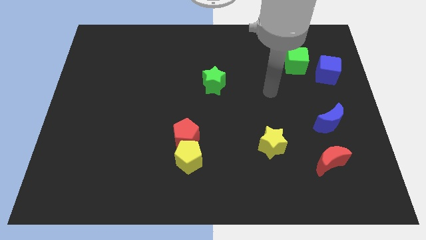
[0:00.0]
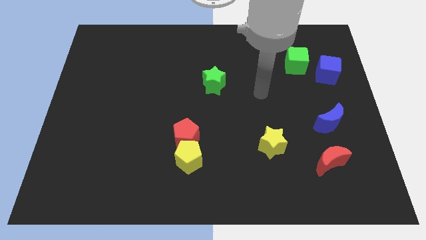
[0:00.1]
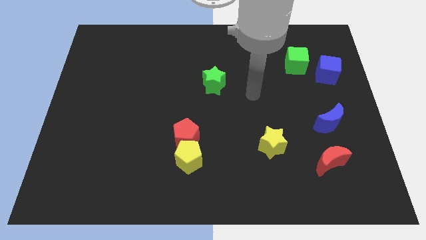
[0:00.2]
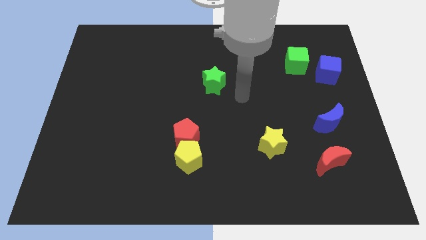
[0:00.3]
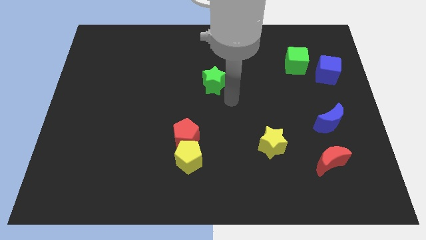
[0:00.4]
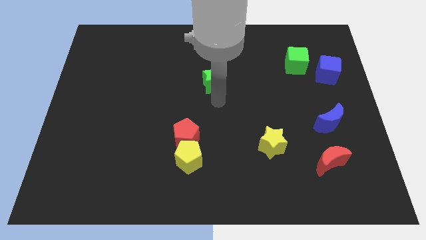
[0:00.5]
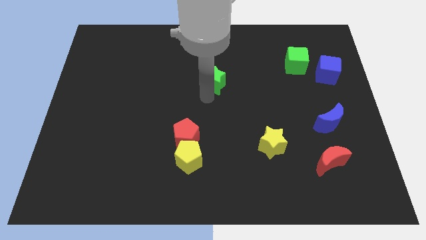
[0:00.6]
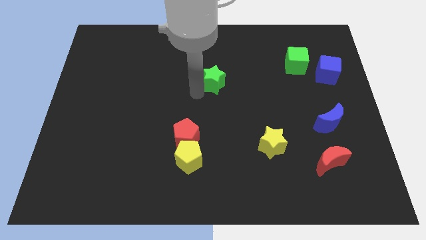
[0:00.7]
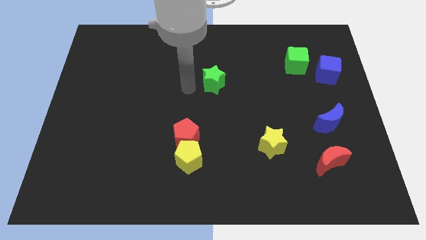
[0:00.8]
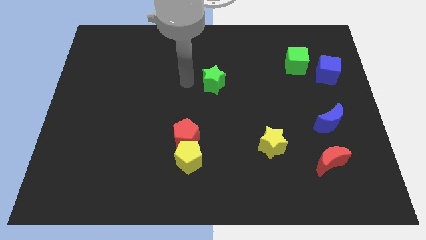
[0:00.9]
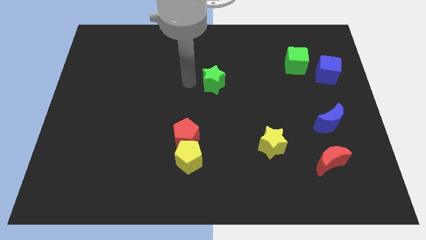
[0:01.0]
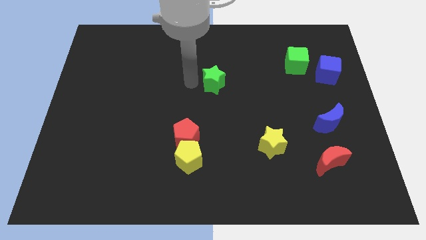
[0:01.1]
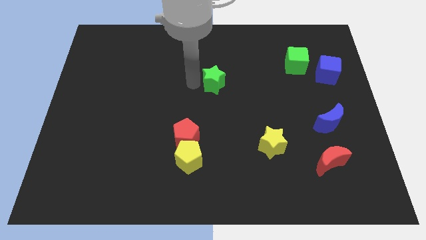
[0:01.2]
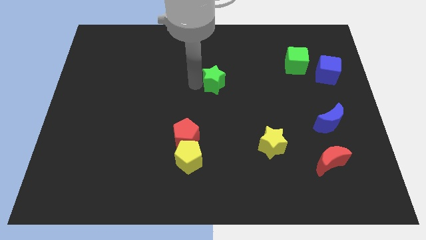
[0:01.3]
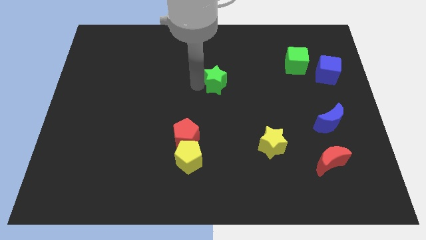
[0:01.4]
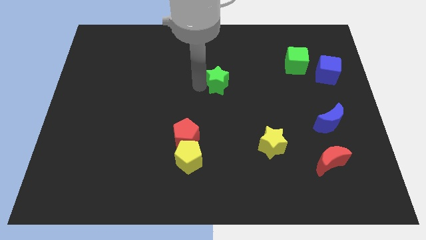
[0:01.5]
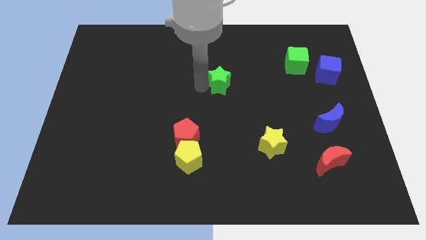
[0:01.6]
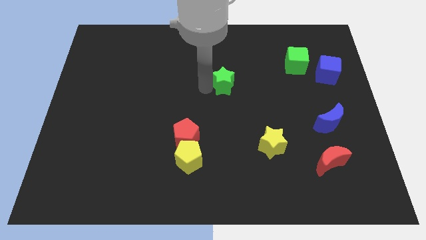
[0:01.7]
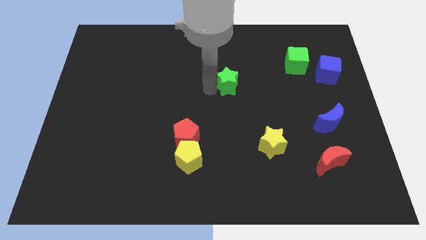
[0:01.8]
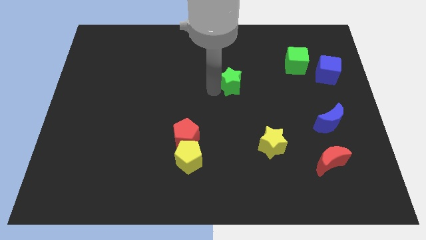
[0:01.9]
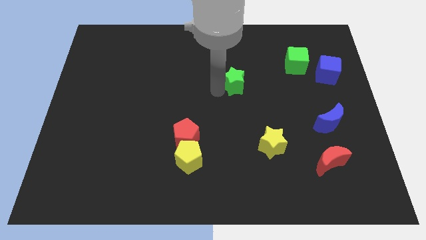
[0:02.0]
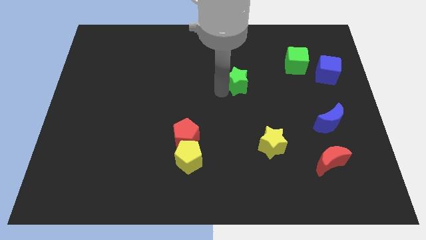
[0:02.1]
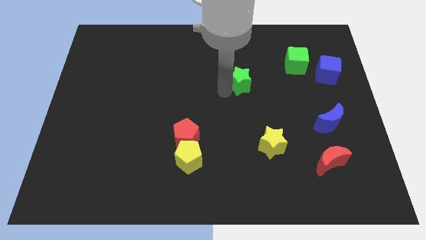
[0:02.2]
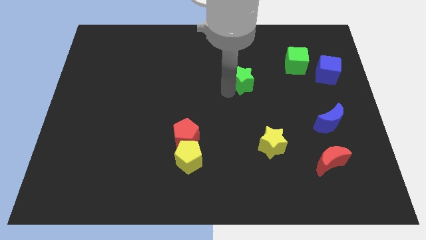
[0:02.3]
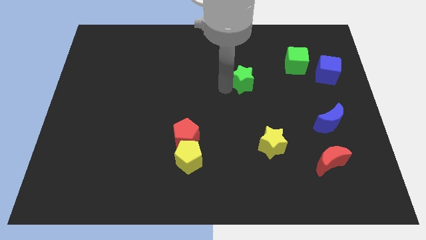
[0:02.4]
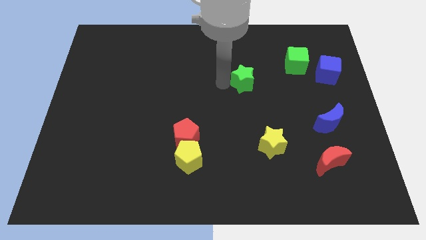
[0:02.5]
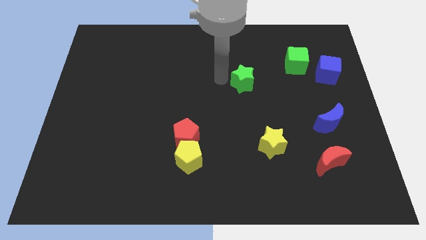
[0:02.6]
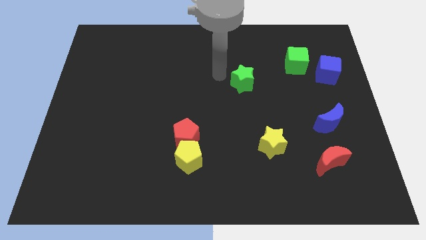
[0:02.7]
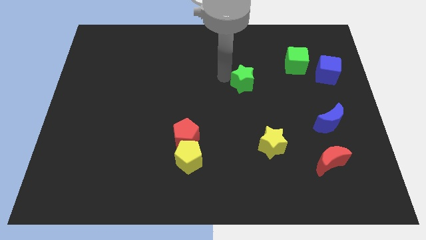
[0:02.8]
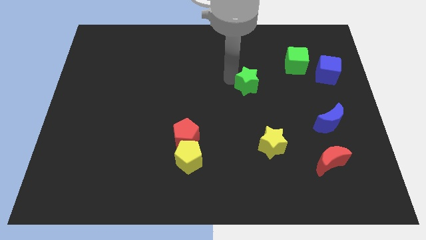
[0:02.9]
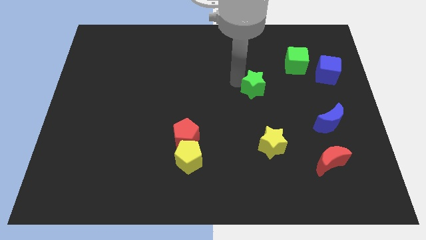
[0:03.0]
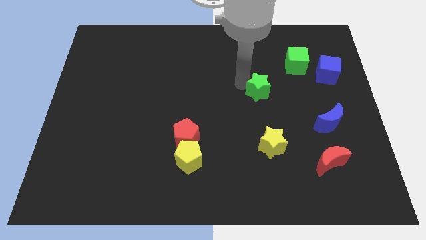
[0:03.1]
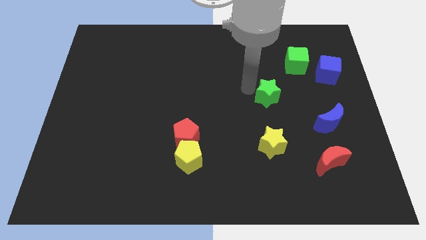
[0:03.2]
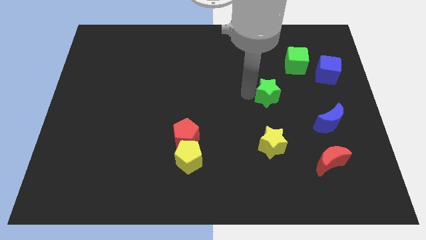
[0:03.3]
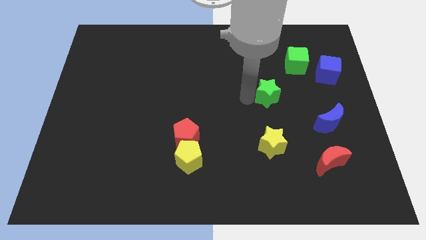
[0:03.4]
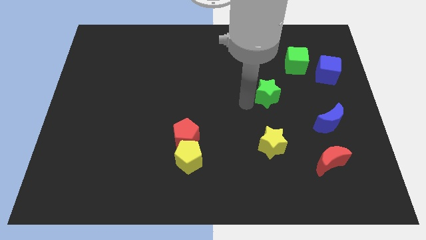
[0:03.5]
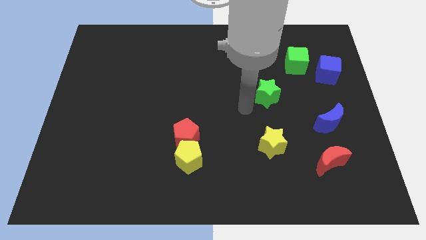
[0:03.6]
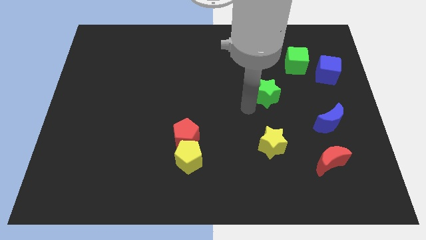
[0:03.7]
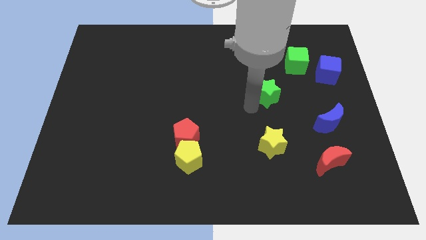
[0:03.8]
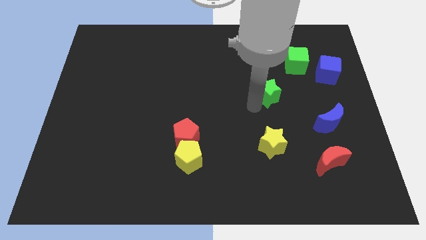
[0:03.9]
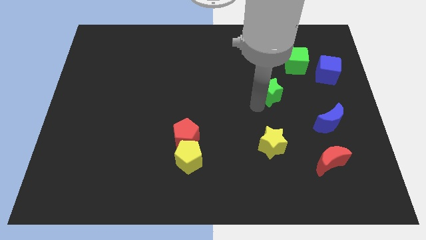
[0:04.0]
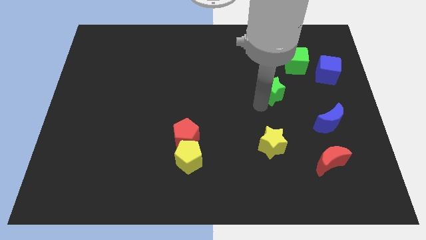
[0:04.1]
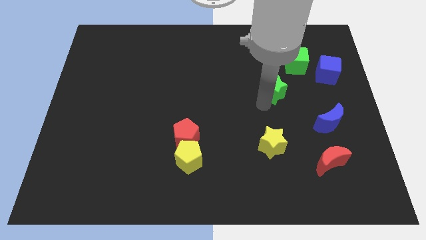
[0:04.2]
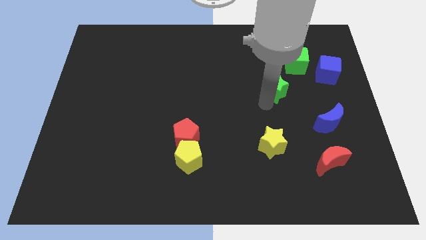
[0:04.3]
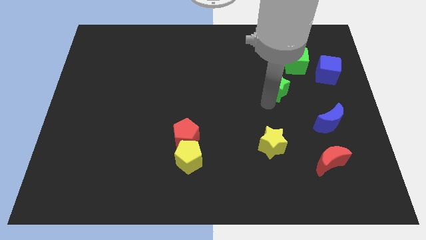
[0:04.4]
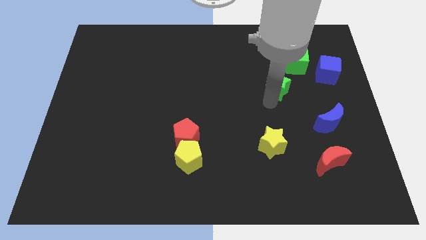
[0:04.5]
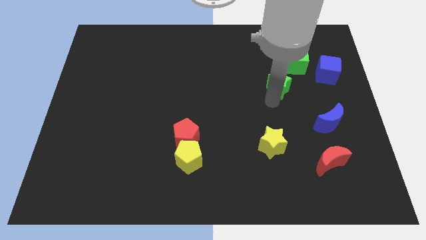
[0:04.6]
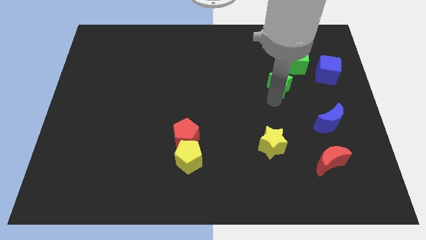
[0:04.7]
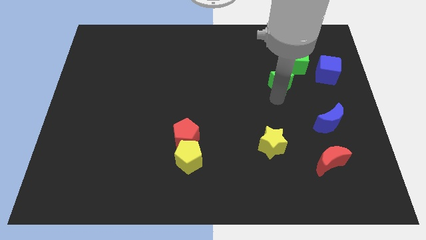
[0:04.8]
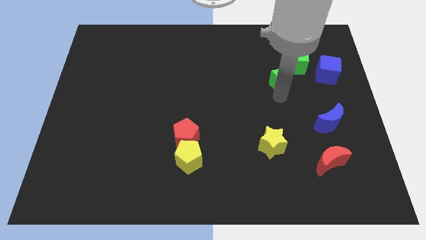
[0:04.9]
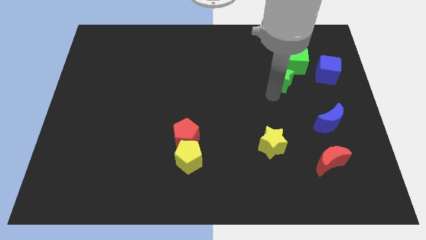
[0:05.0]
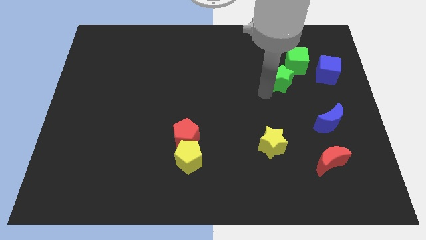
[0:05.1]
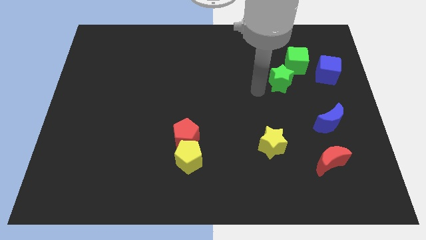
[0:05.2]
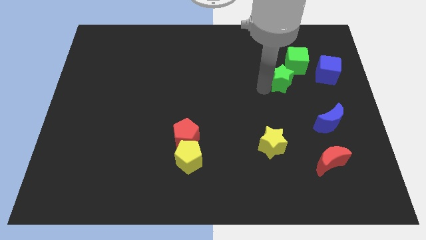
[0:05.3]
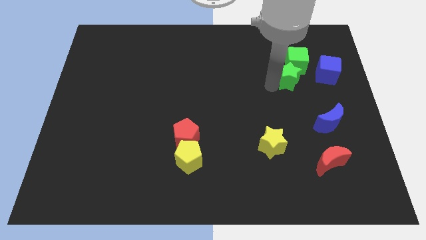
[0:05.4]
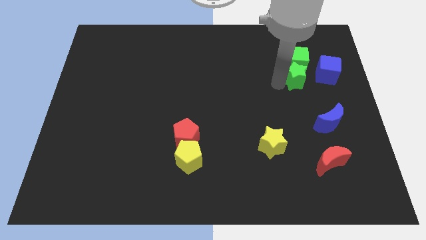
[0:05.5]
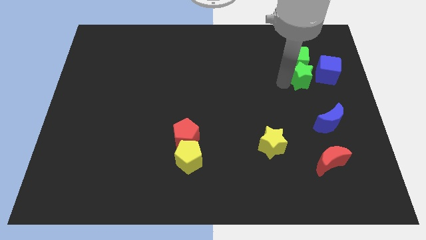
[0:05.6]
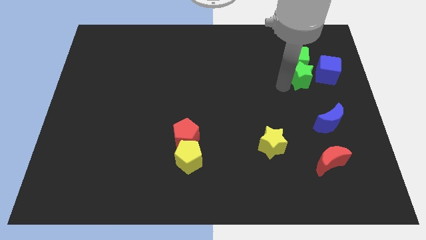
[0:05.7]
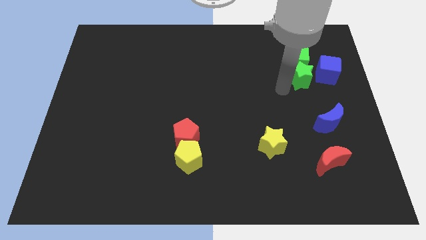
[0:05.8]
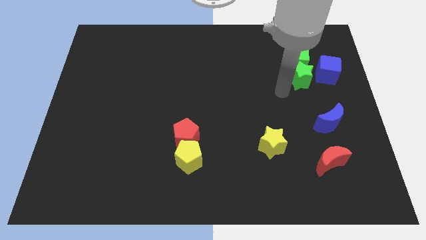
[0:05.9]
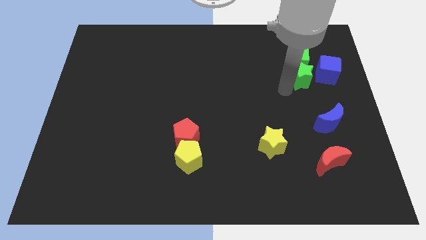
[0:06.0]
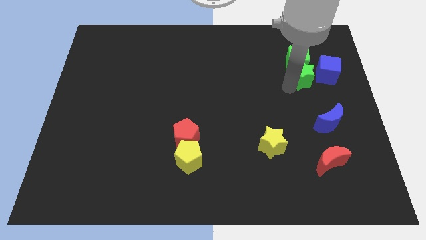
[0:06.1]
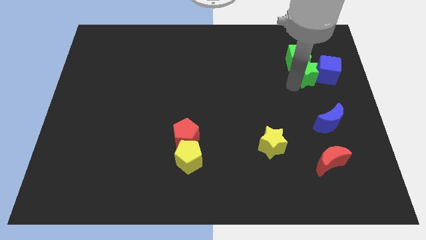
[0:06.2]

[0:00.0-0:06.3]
put the green star next to the blue cube

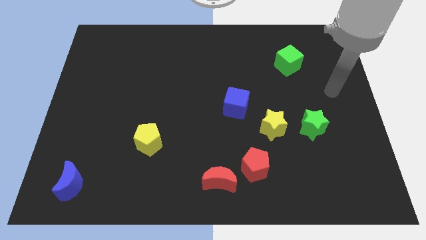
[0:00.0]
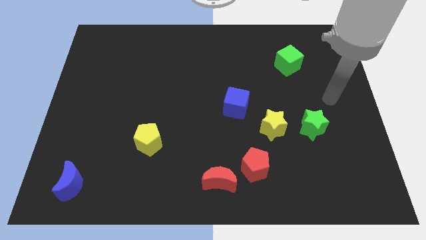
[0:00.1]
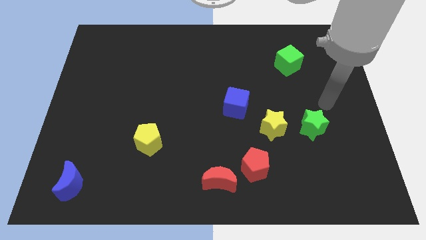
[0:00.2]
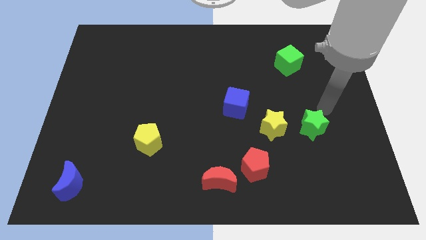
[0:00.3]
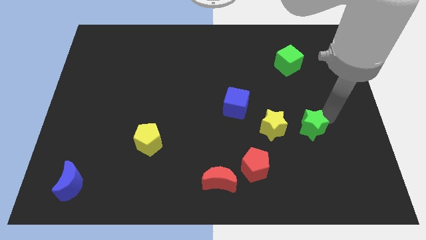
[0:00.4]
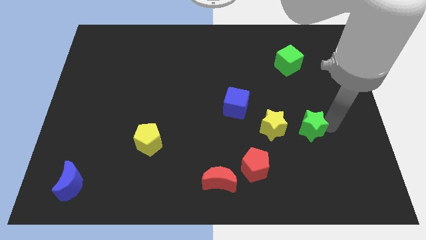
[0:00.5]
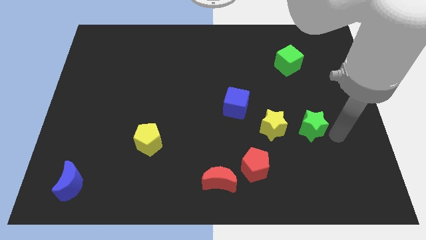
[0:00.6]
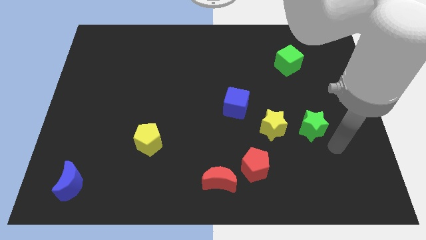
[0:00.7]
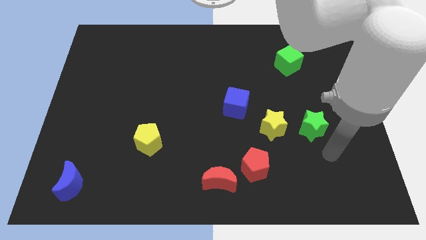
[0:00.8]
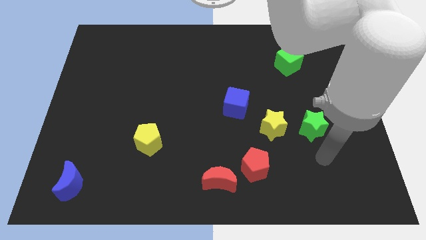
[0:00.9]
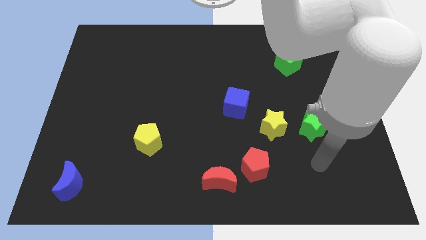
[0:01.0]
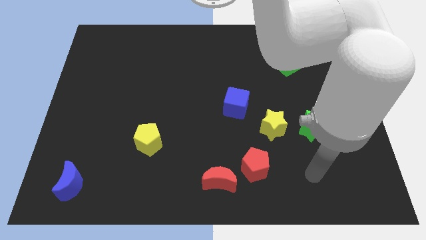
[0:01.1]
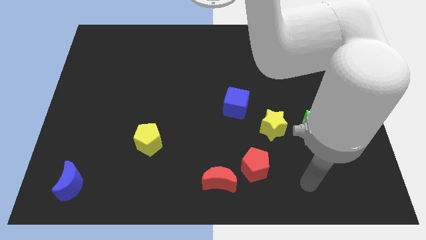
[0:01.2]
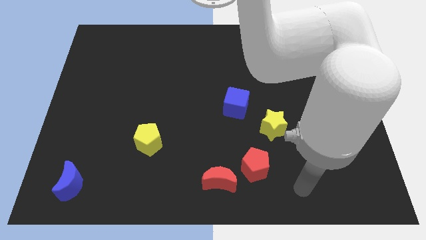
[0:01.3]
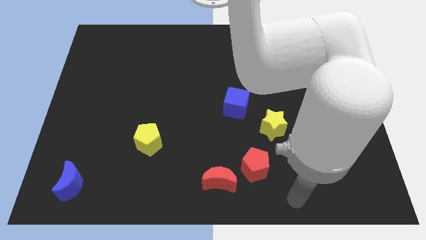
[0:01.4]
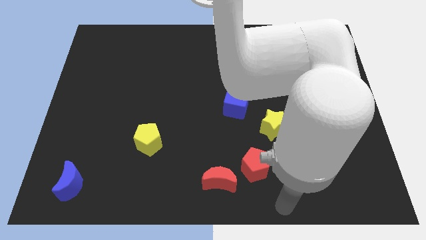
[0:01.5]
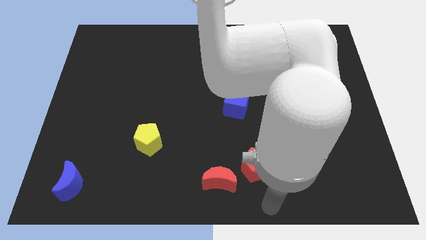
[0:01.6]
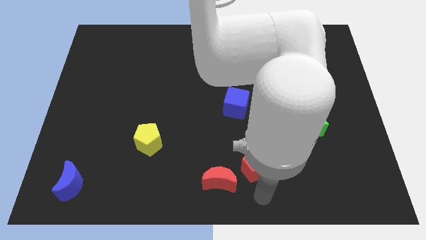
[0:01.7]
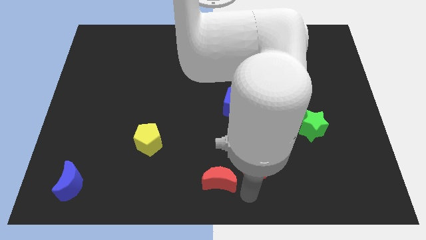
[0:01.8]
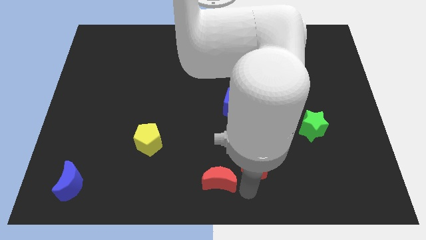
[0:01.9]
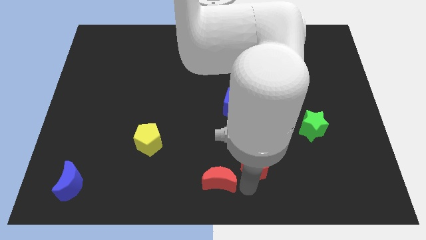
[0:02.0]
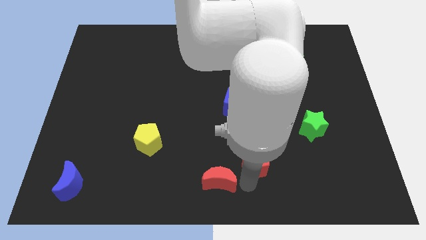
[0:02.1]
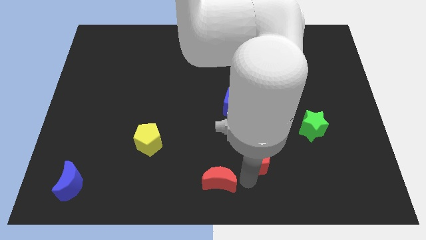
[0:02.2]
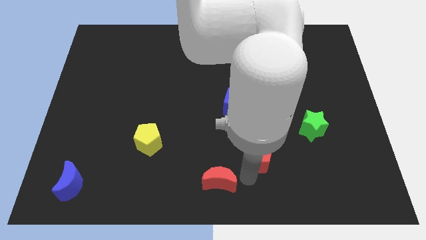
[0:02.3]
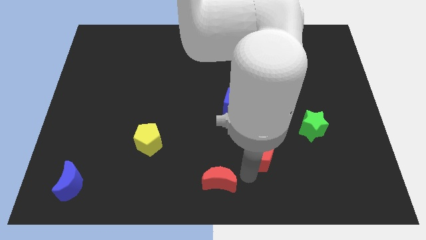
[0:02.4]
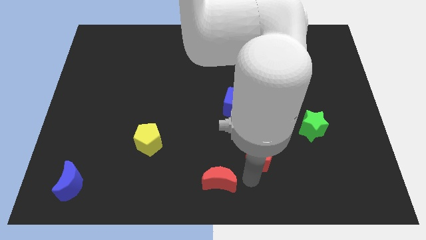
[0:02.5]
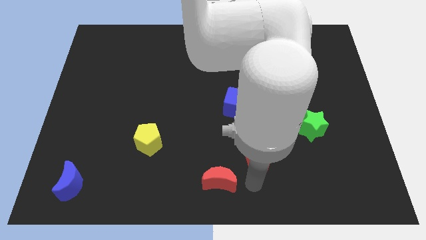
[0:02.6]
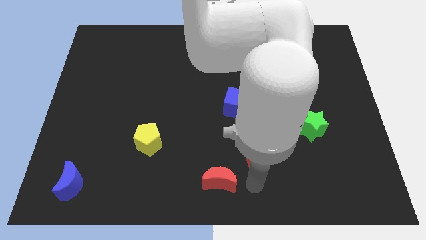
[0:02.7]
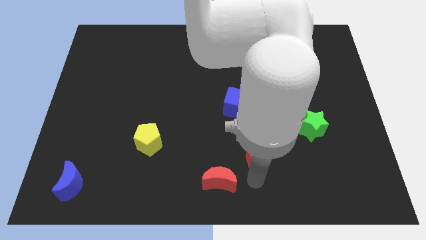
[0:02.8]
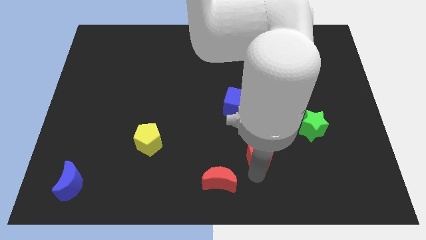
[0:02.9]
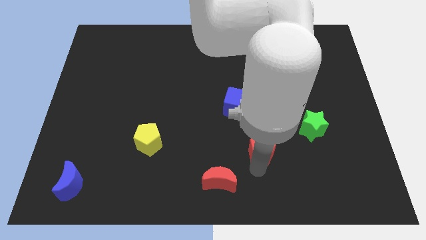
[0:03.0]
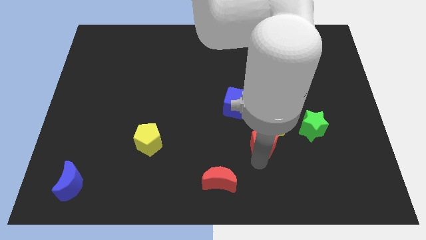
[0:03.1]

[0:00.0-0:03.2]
push the red pentagon towards the yellow star
